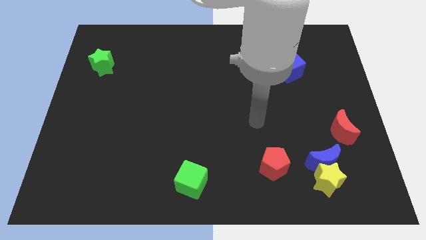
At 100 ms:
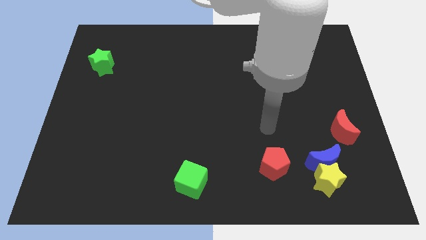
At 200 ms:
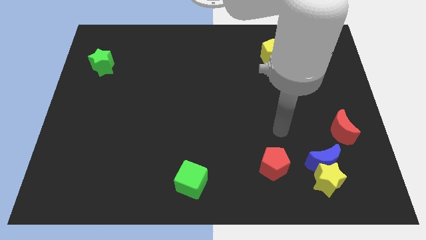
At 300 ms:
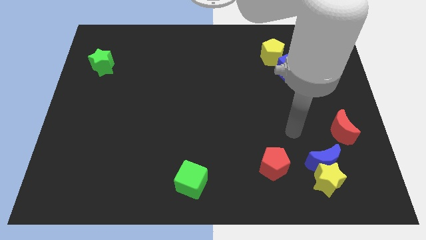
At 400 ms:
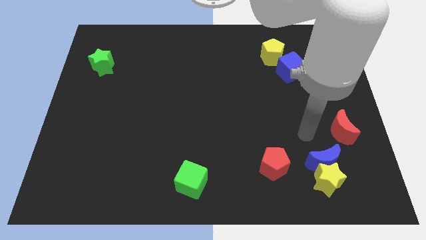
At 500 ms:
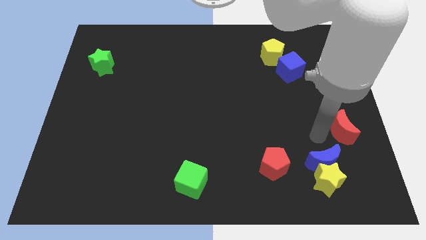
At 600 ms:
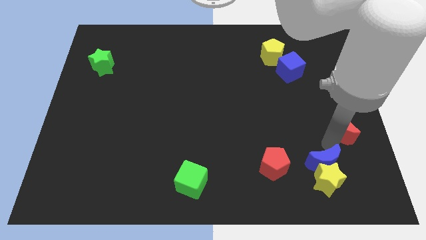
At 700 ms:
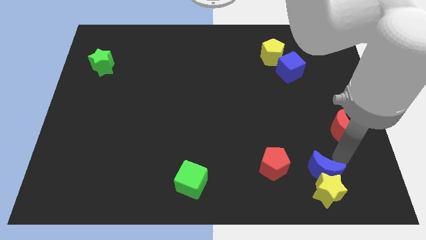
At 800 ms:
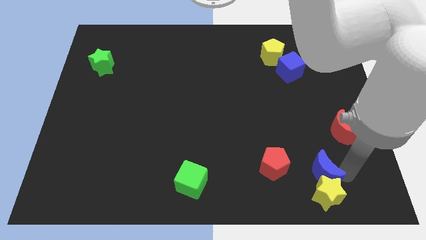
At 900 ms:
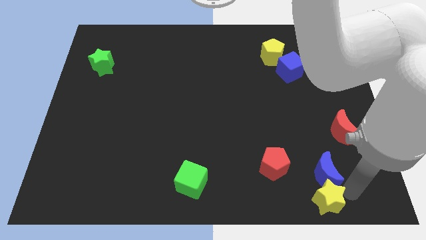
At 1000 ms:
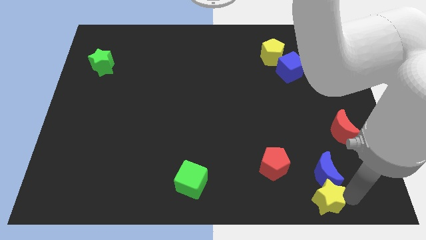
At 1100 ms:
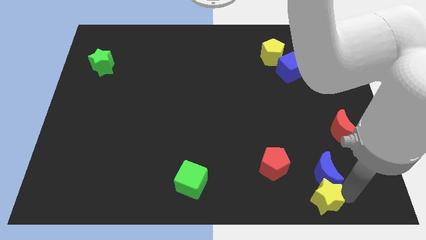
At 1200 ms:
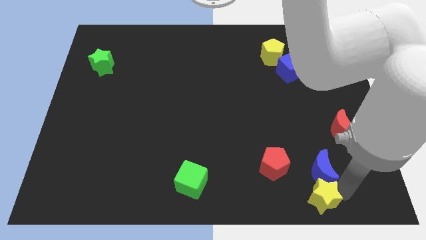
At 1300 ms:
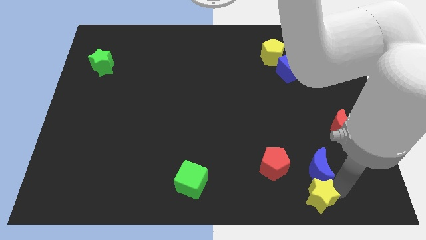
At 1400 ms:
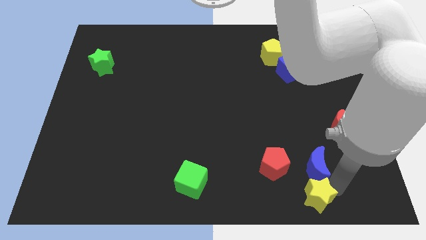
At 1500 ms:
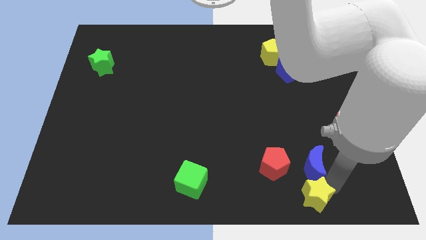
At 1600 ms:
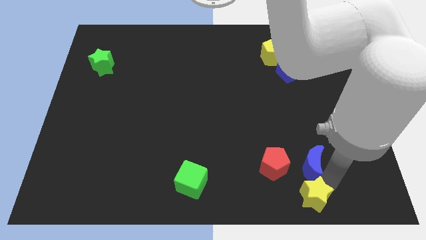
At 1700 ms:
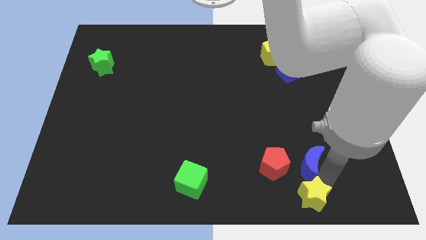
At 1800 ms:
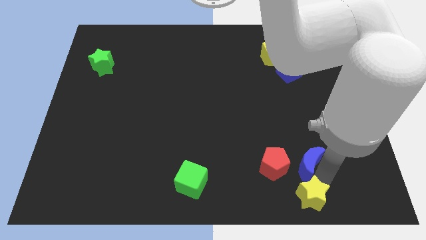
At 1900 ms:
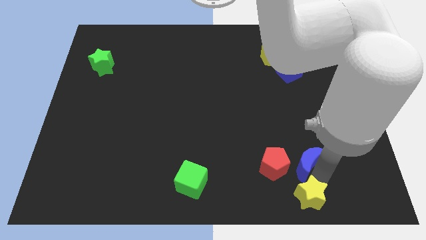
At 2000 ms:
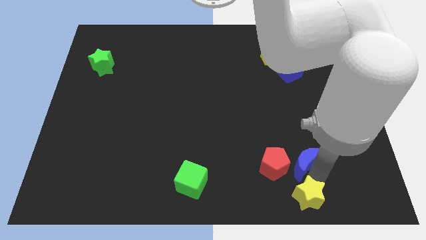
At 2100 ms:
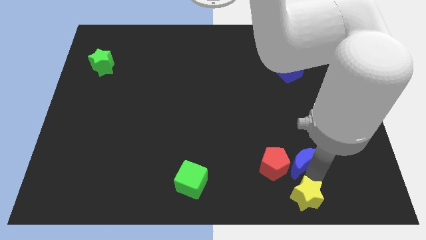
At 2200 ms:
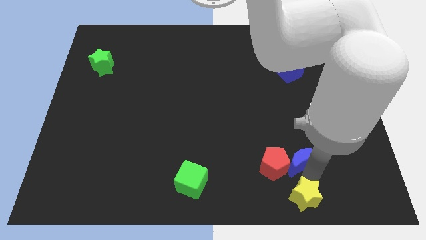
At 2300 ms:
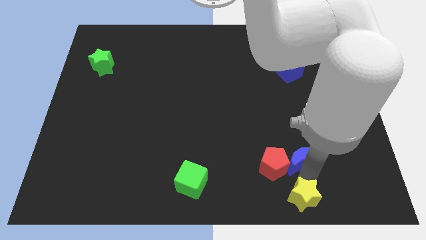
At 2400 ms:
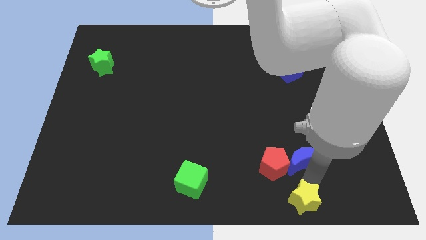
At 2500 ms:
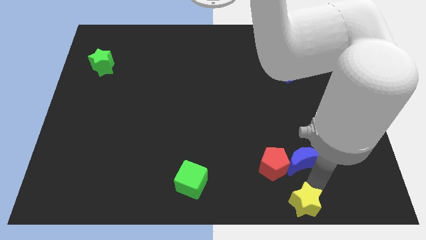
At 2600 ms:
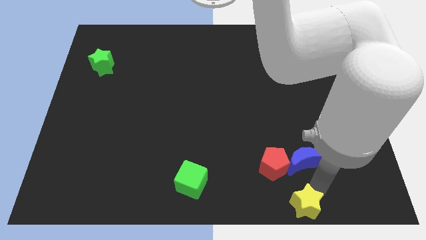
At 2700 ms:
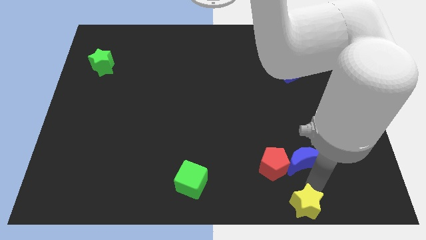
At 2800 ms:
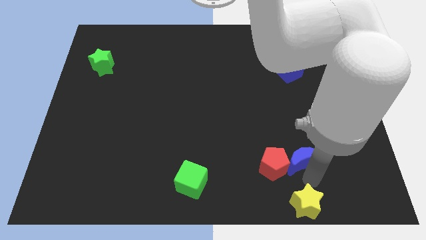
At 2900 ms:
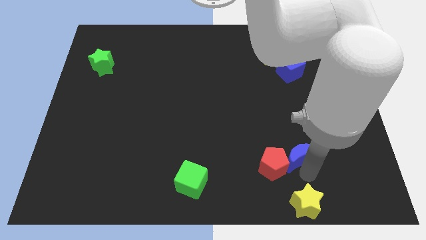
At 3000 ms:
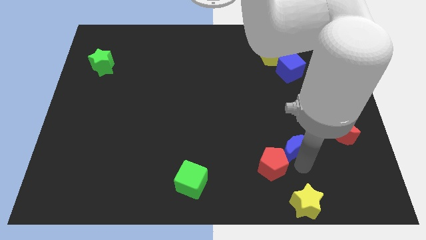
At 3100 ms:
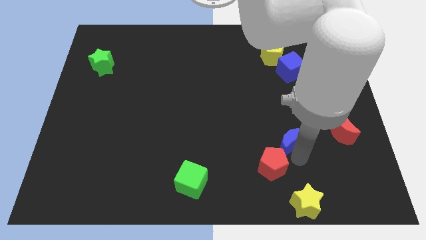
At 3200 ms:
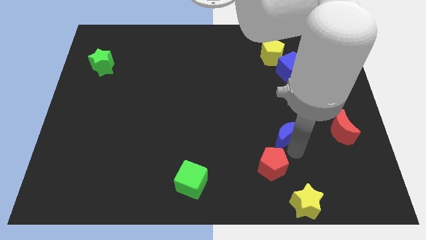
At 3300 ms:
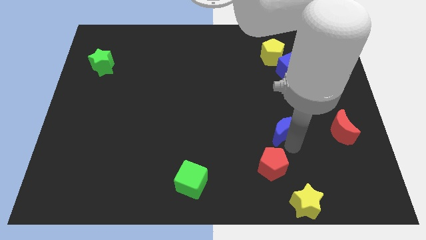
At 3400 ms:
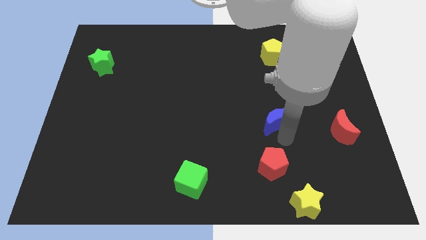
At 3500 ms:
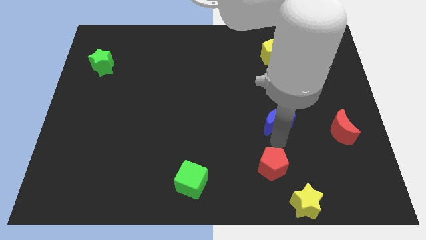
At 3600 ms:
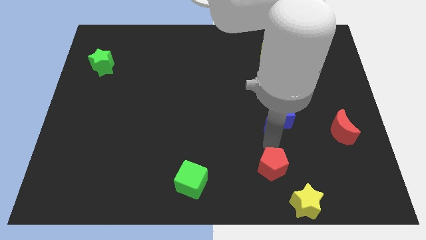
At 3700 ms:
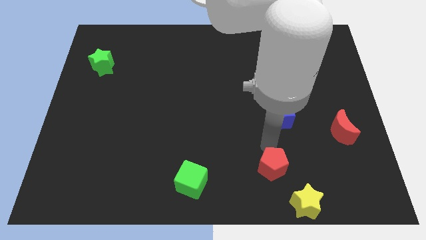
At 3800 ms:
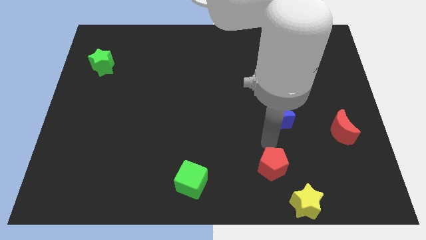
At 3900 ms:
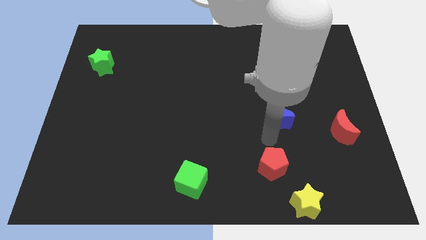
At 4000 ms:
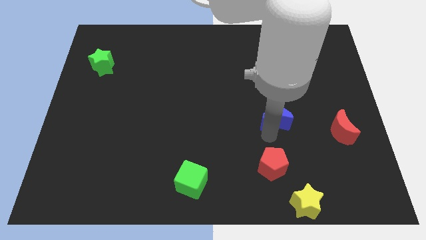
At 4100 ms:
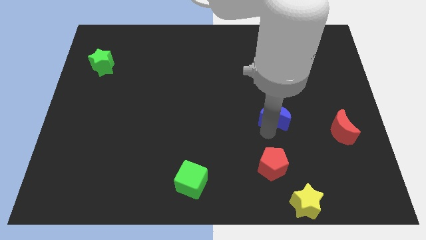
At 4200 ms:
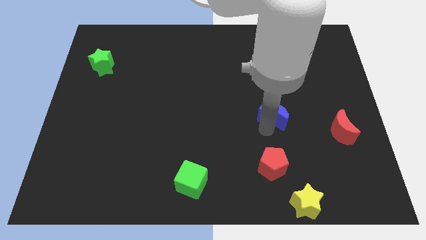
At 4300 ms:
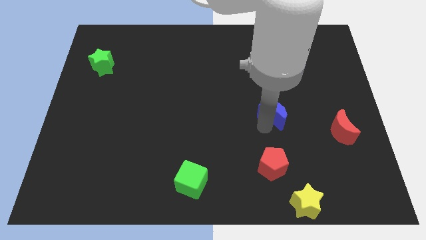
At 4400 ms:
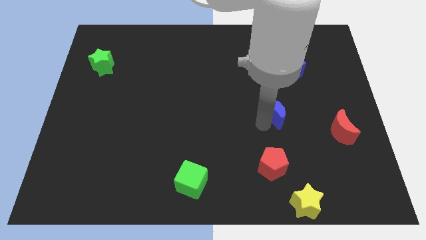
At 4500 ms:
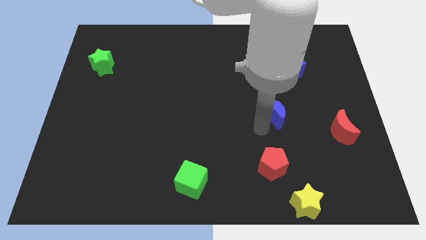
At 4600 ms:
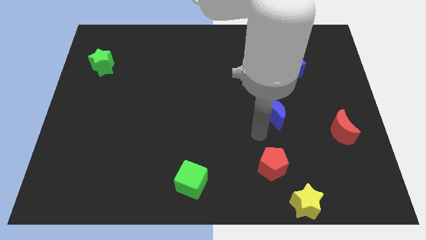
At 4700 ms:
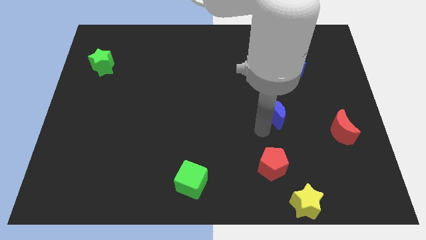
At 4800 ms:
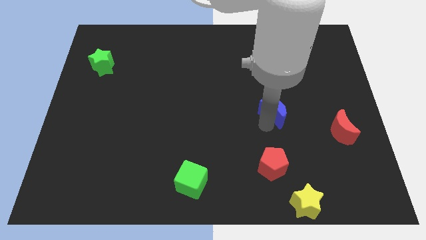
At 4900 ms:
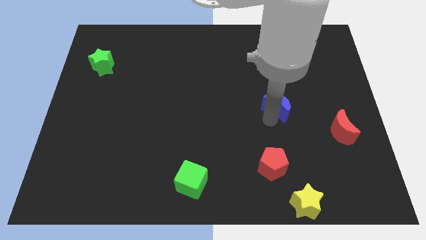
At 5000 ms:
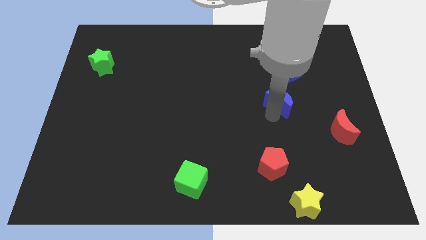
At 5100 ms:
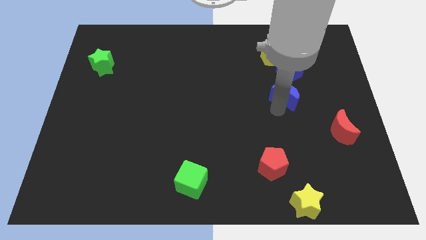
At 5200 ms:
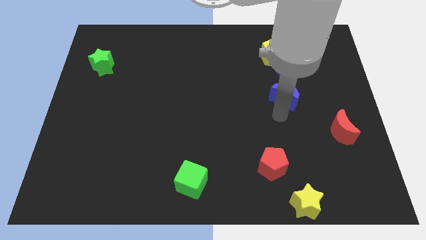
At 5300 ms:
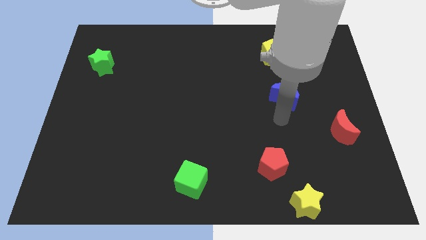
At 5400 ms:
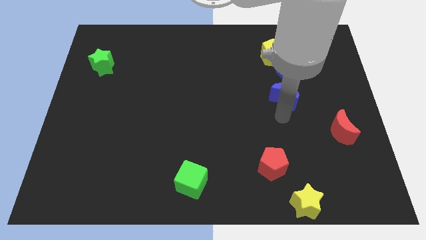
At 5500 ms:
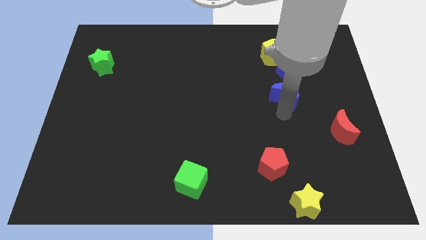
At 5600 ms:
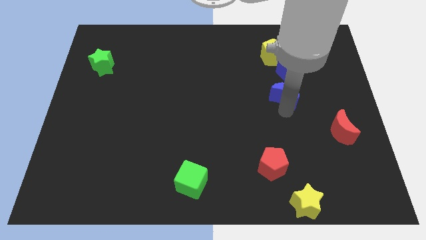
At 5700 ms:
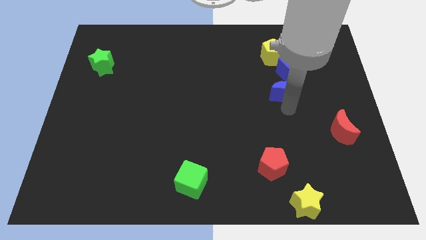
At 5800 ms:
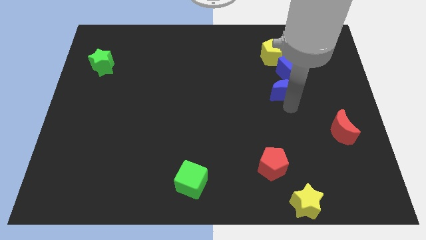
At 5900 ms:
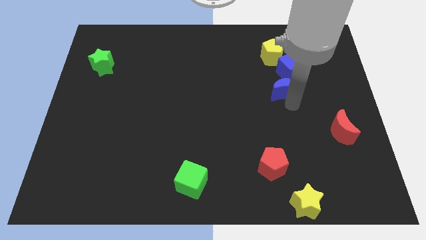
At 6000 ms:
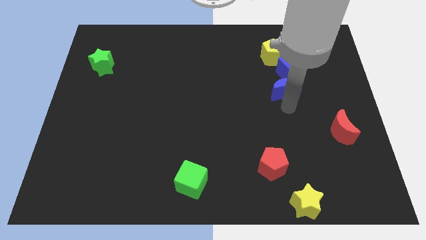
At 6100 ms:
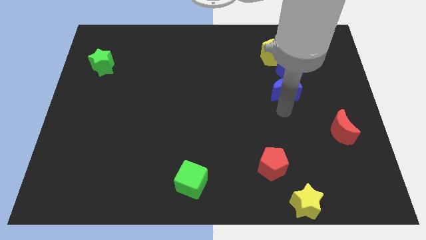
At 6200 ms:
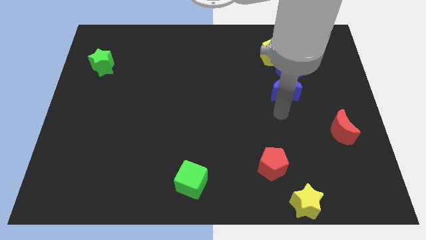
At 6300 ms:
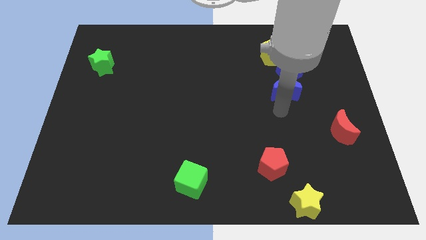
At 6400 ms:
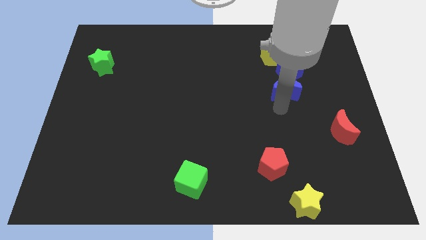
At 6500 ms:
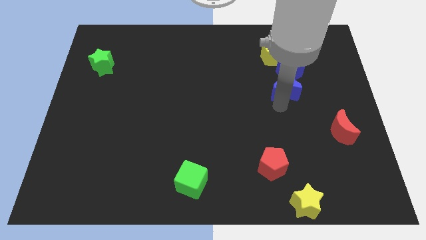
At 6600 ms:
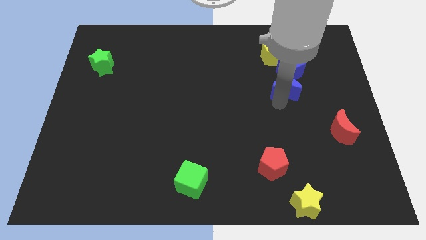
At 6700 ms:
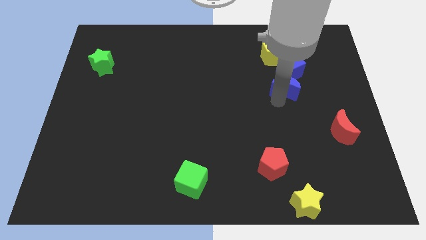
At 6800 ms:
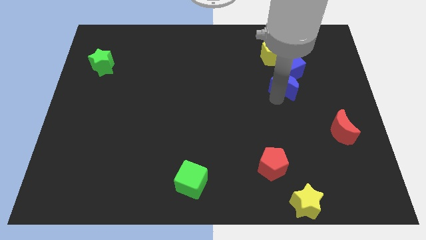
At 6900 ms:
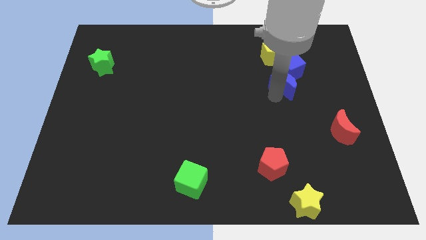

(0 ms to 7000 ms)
slide the blue moon to the blue cube
